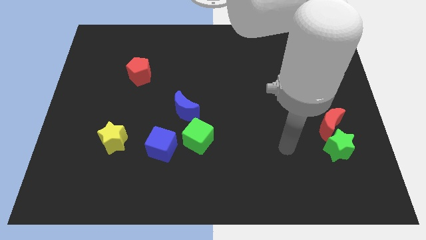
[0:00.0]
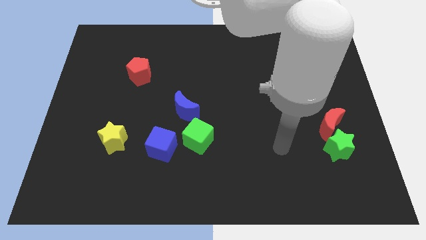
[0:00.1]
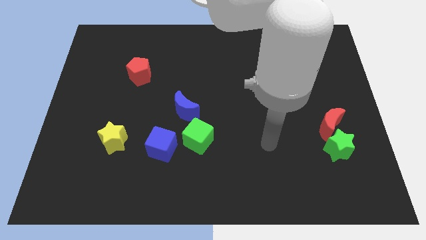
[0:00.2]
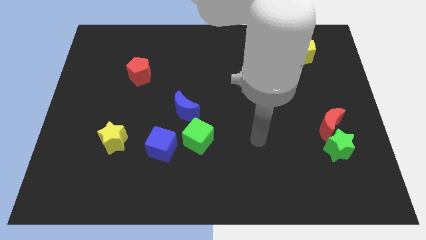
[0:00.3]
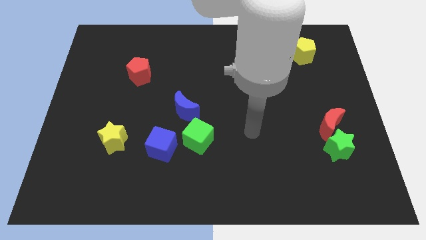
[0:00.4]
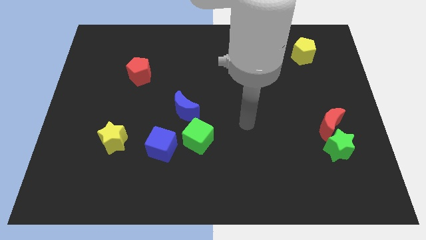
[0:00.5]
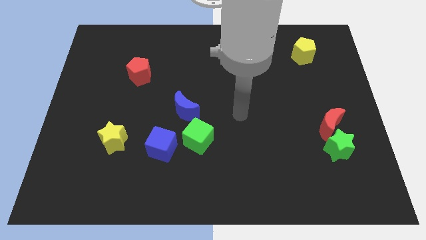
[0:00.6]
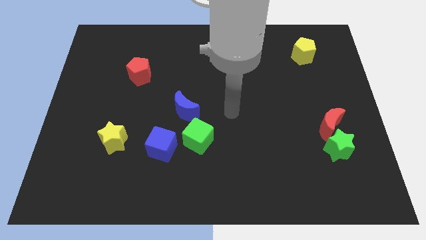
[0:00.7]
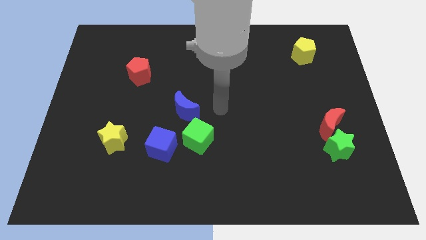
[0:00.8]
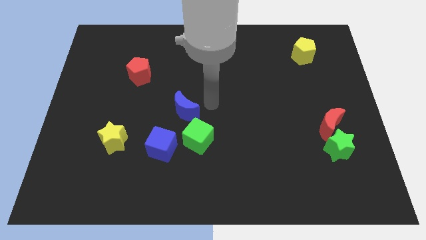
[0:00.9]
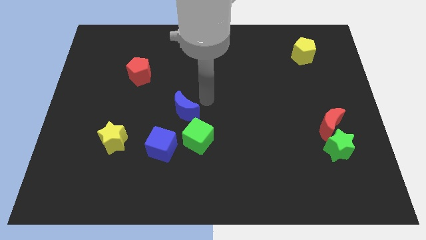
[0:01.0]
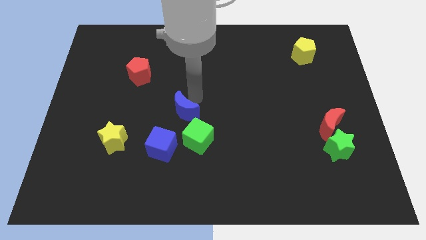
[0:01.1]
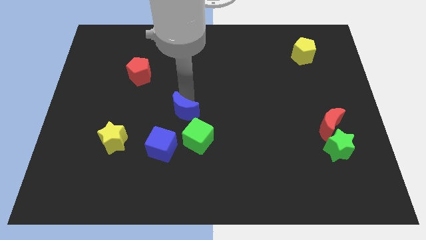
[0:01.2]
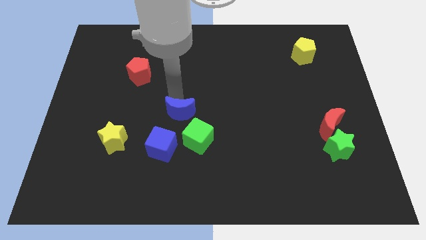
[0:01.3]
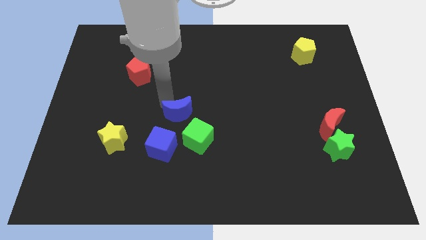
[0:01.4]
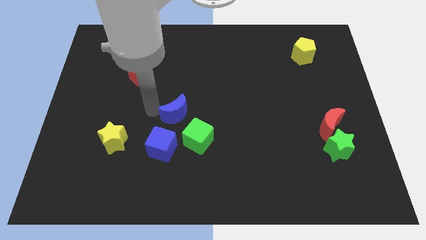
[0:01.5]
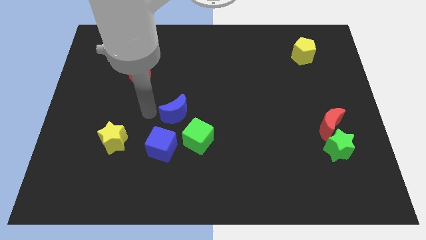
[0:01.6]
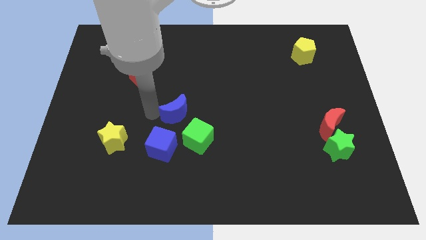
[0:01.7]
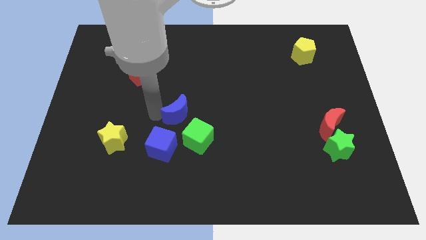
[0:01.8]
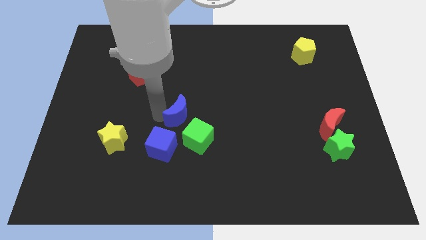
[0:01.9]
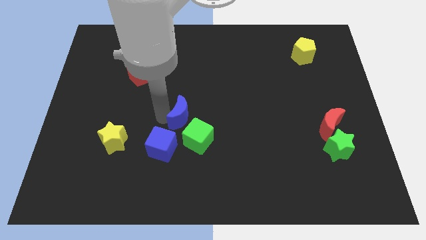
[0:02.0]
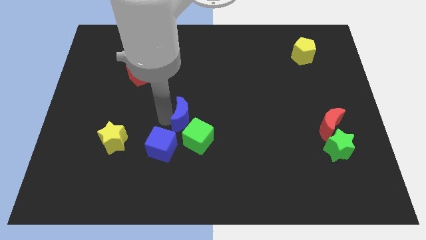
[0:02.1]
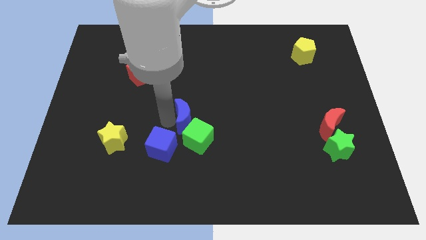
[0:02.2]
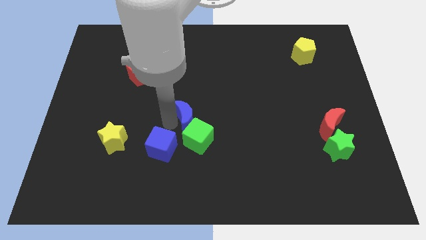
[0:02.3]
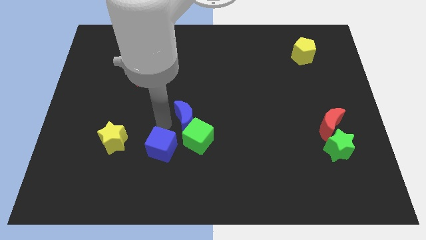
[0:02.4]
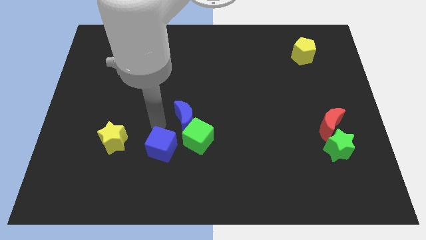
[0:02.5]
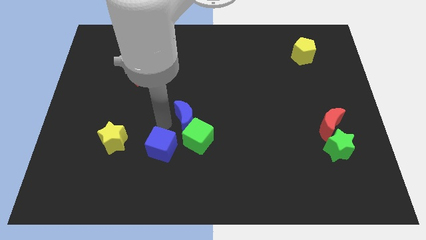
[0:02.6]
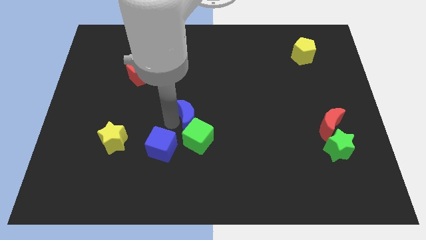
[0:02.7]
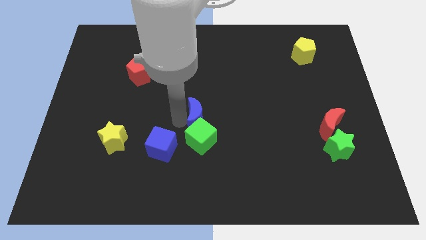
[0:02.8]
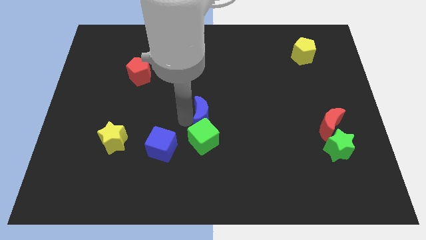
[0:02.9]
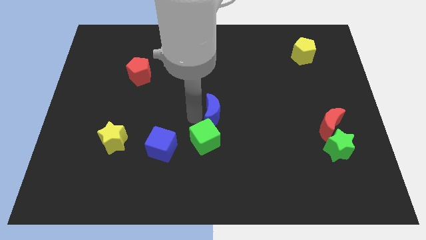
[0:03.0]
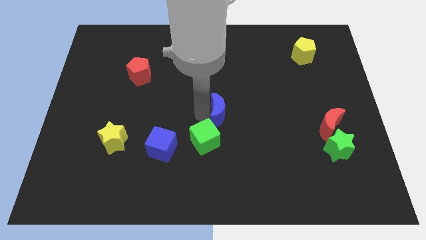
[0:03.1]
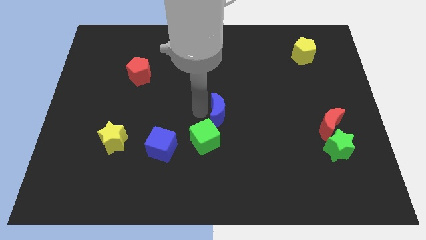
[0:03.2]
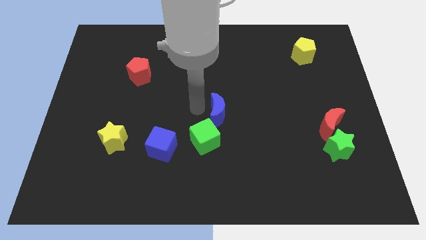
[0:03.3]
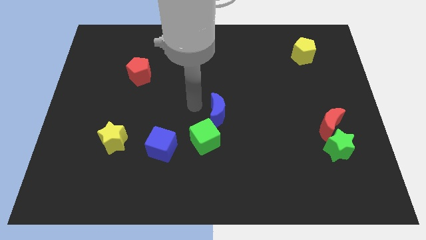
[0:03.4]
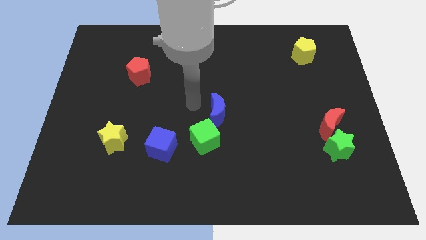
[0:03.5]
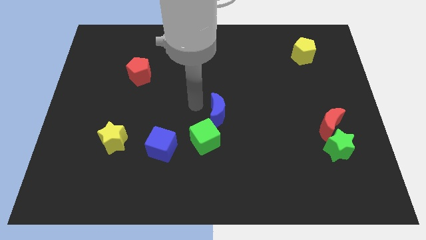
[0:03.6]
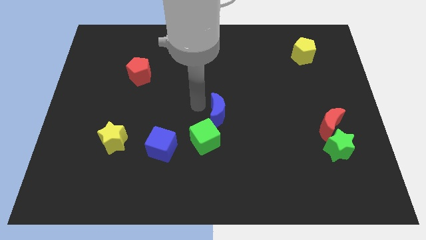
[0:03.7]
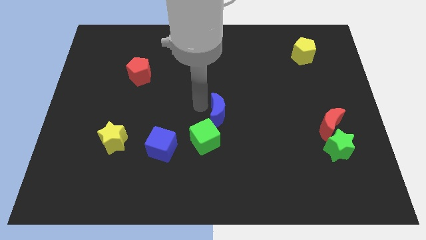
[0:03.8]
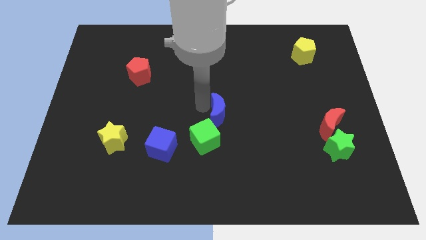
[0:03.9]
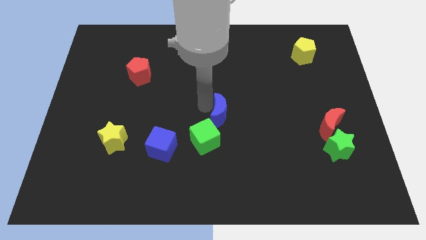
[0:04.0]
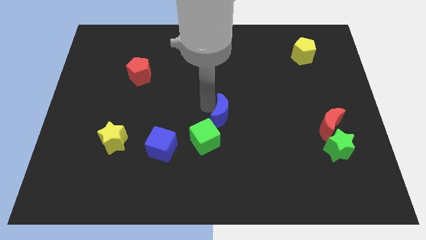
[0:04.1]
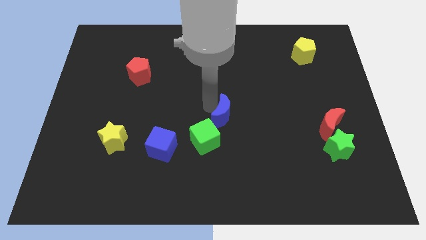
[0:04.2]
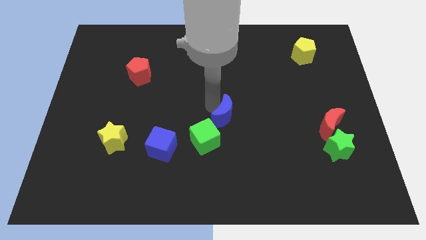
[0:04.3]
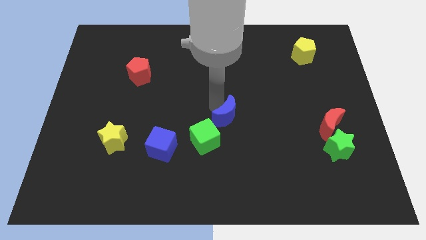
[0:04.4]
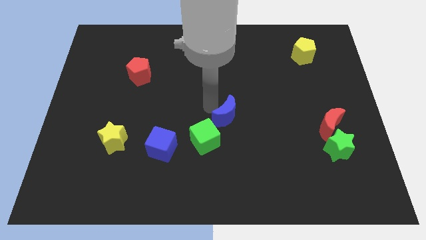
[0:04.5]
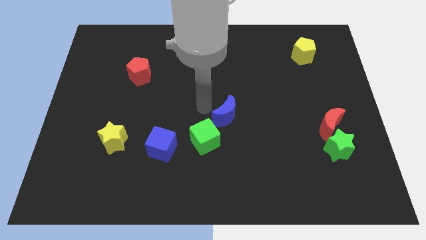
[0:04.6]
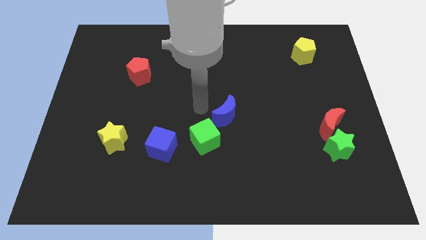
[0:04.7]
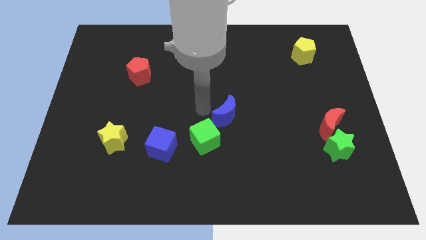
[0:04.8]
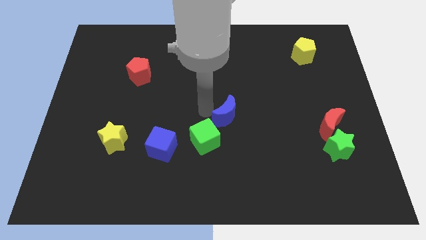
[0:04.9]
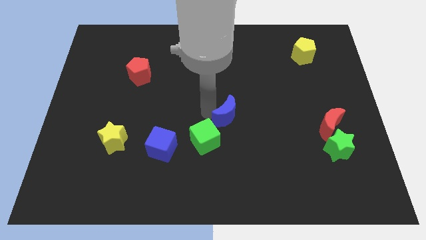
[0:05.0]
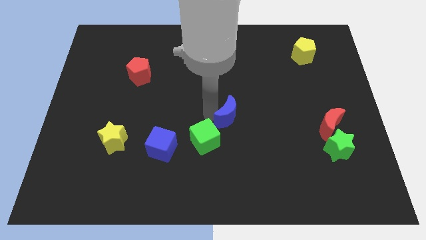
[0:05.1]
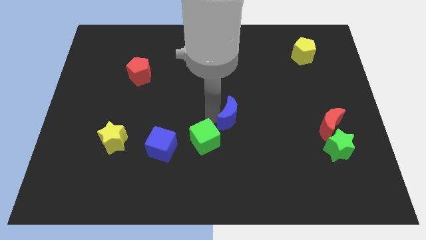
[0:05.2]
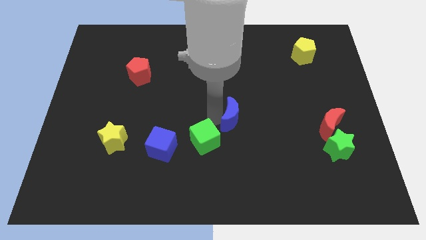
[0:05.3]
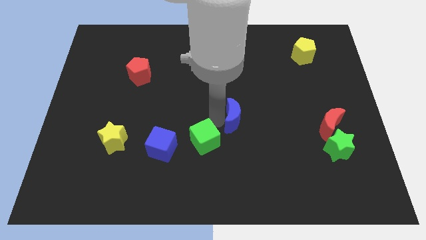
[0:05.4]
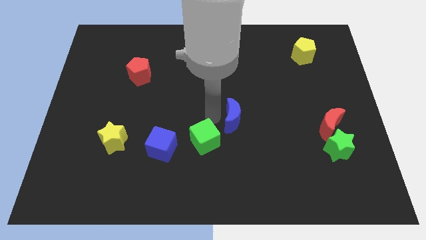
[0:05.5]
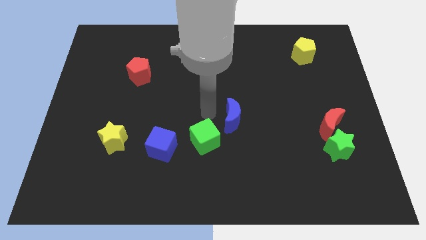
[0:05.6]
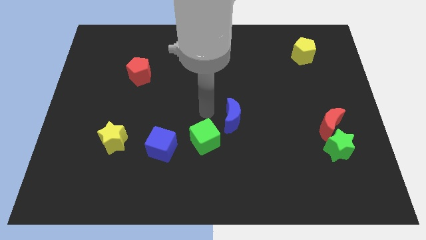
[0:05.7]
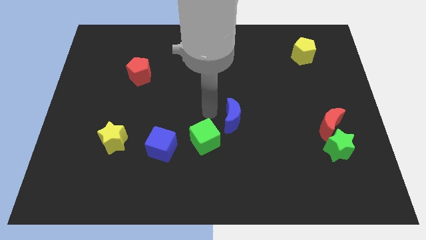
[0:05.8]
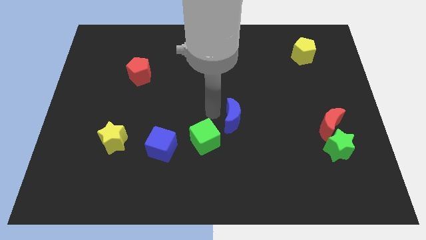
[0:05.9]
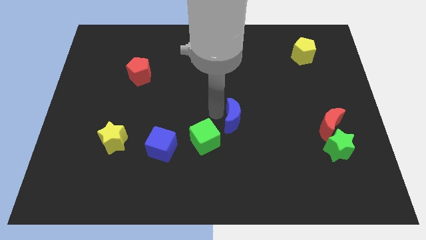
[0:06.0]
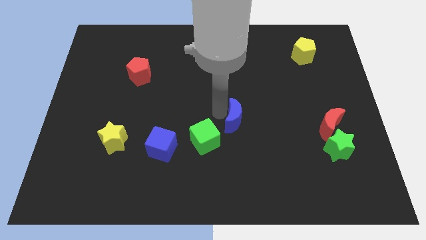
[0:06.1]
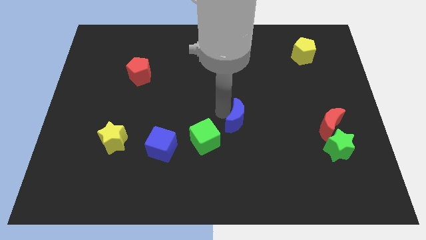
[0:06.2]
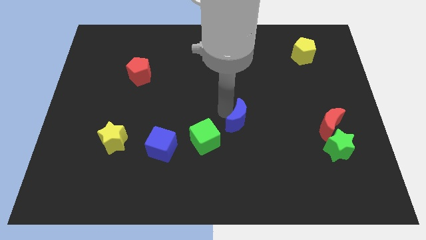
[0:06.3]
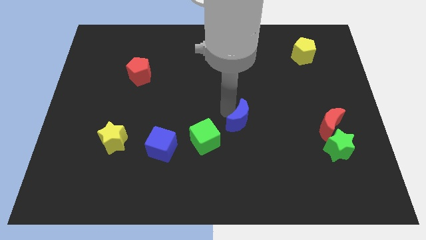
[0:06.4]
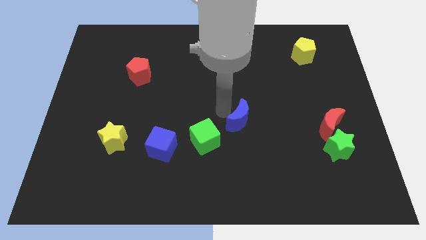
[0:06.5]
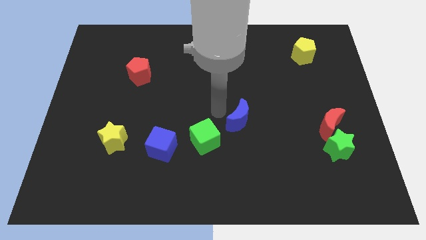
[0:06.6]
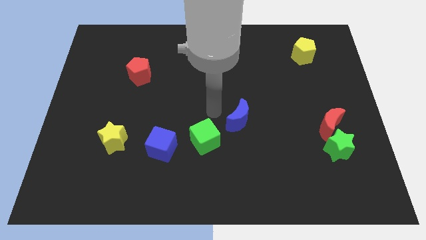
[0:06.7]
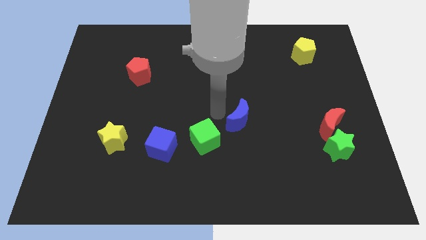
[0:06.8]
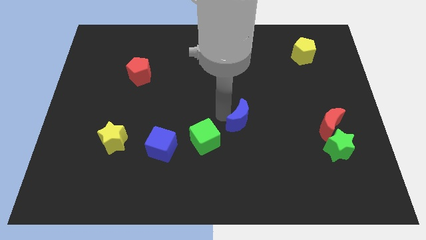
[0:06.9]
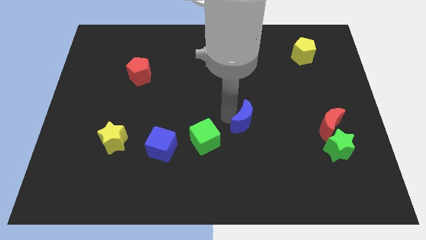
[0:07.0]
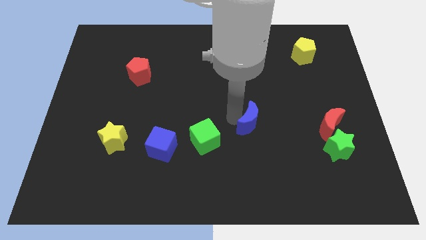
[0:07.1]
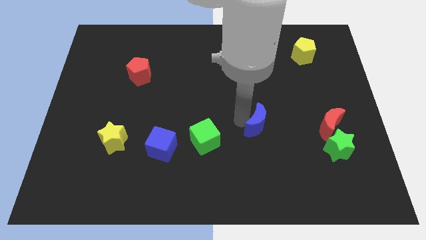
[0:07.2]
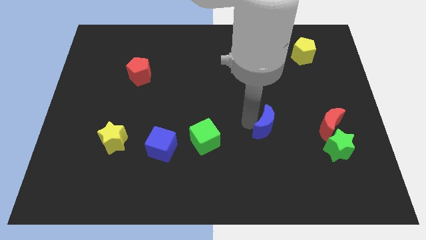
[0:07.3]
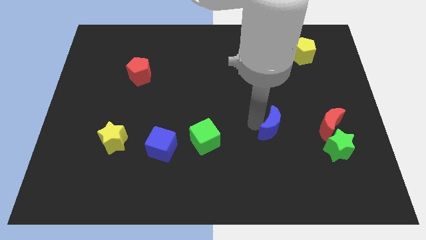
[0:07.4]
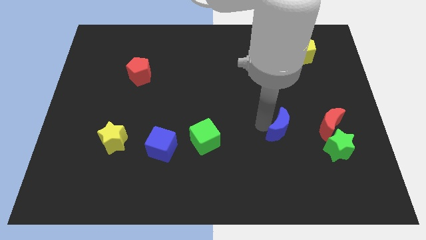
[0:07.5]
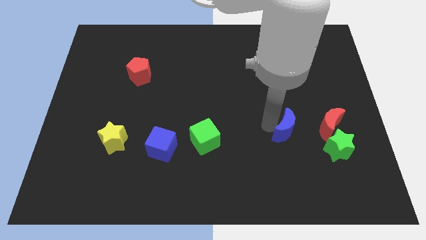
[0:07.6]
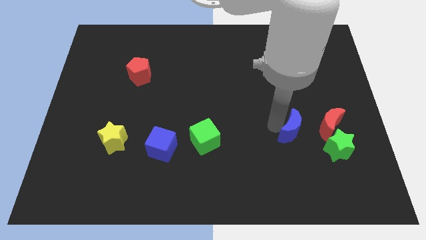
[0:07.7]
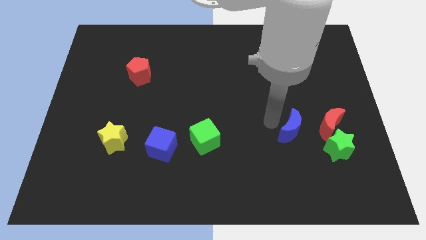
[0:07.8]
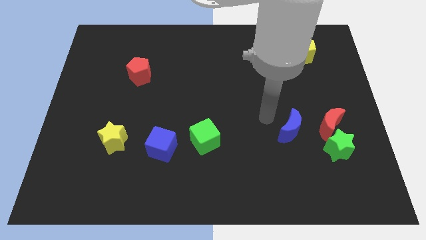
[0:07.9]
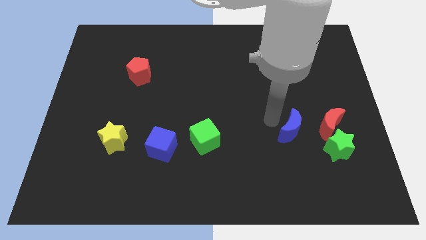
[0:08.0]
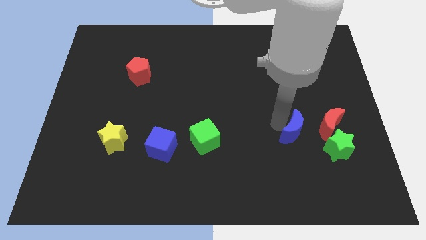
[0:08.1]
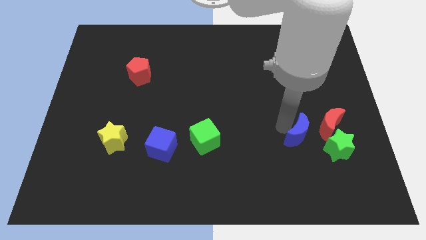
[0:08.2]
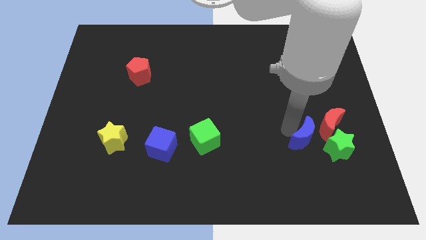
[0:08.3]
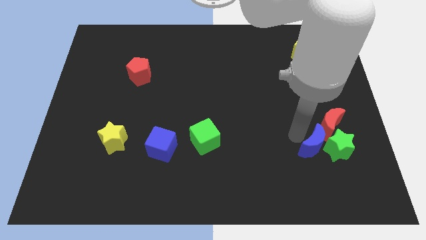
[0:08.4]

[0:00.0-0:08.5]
push the blue moon to the green star
